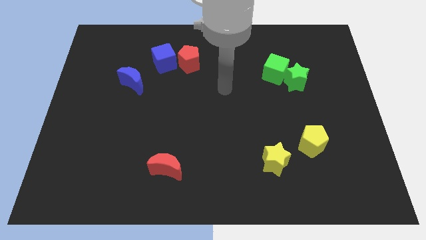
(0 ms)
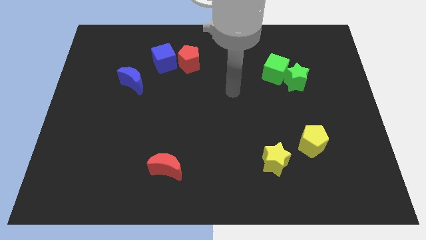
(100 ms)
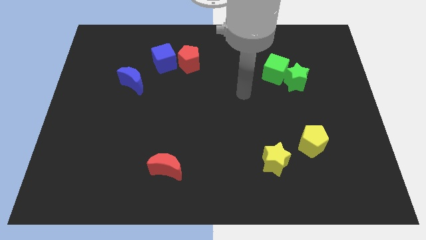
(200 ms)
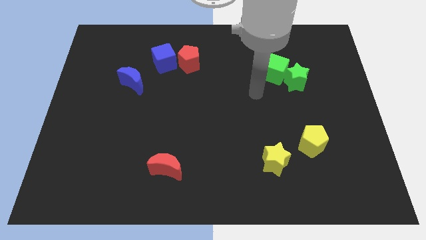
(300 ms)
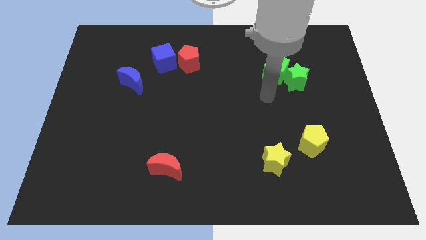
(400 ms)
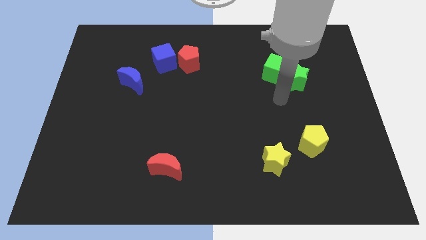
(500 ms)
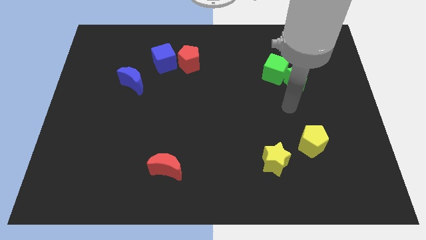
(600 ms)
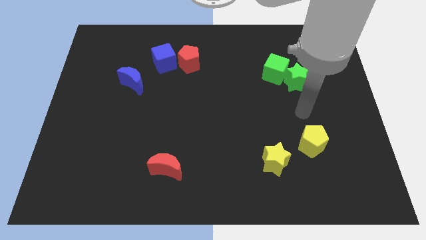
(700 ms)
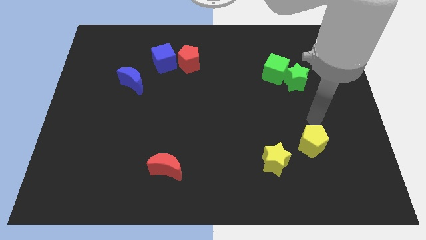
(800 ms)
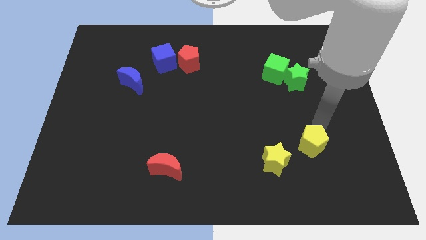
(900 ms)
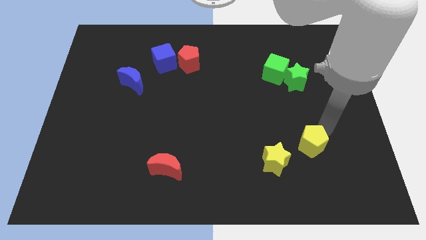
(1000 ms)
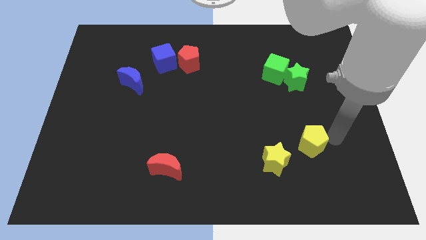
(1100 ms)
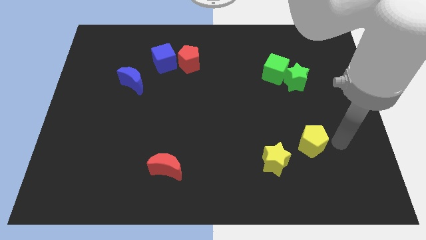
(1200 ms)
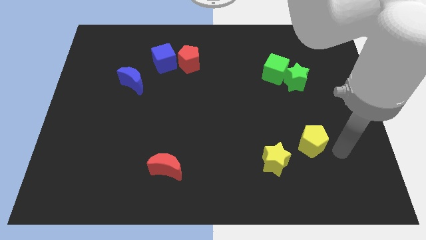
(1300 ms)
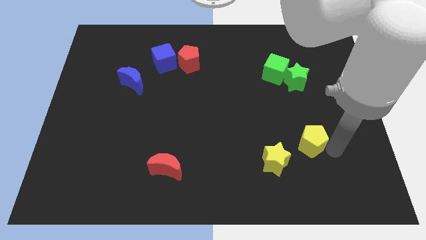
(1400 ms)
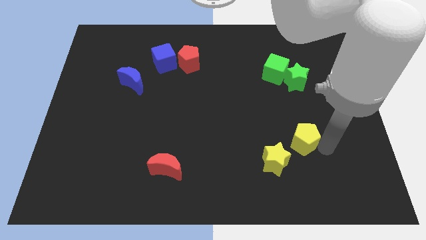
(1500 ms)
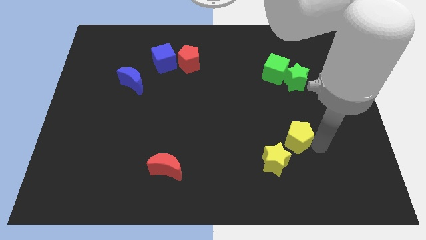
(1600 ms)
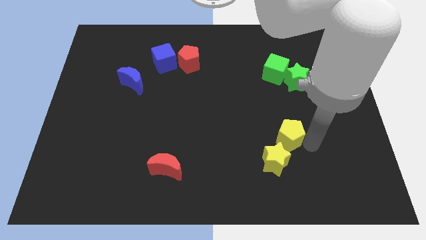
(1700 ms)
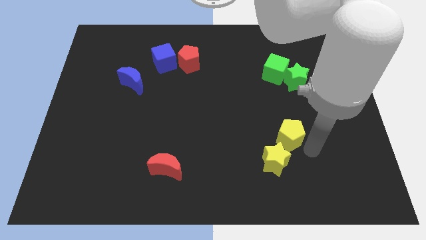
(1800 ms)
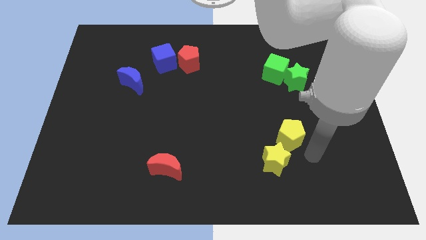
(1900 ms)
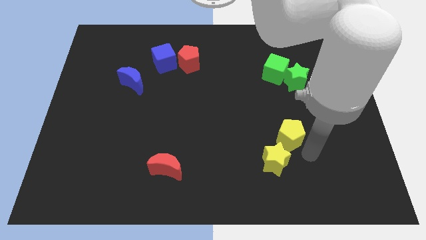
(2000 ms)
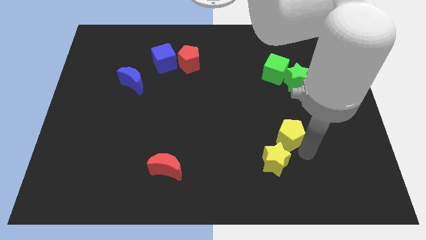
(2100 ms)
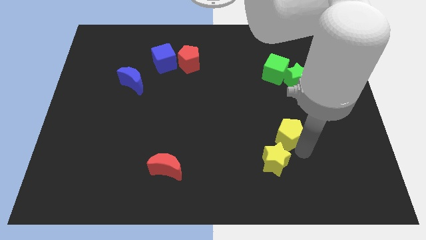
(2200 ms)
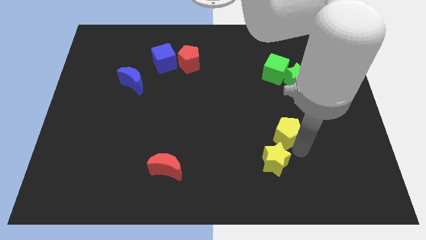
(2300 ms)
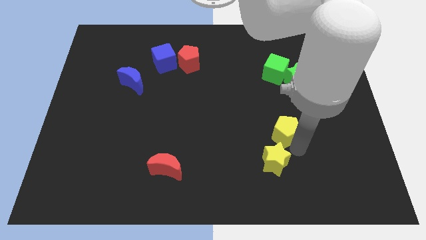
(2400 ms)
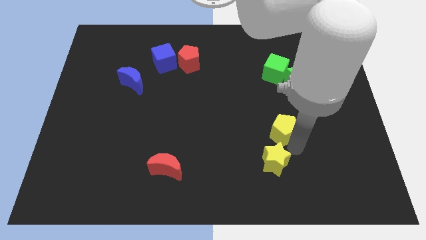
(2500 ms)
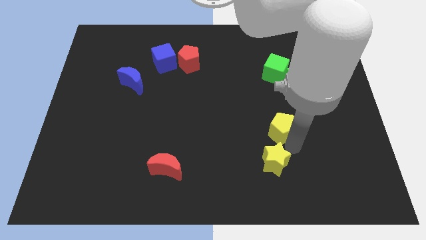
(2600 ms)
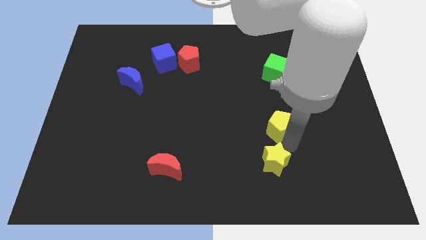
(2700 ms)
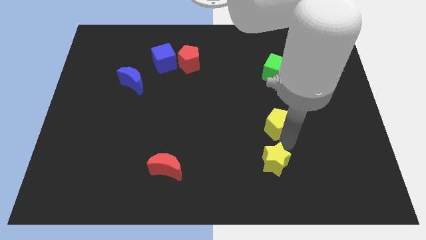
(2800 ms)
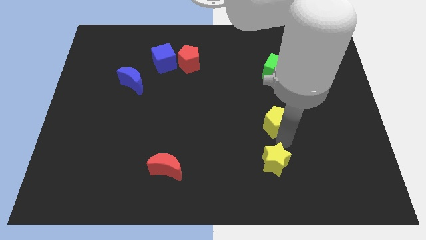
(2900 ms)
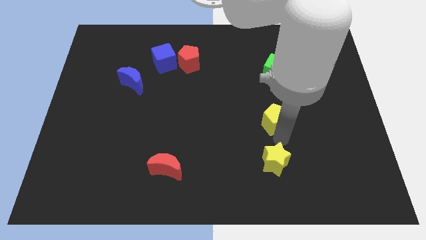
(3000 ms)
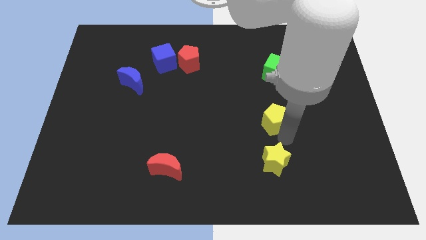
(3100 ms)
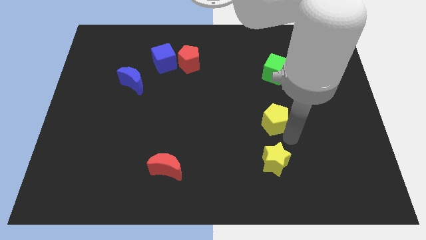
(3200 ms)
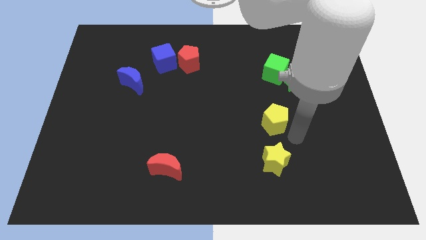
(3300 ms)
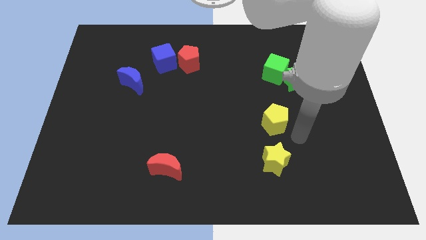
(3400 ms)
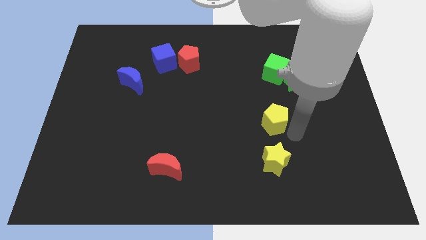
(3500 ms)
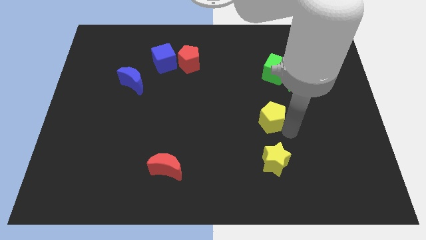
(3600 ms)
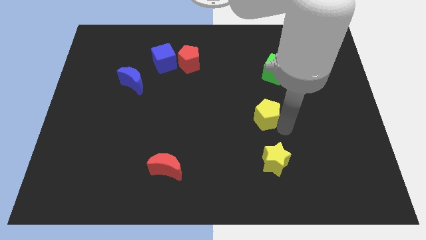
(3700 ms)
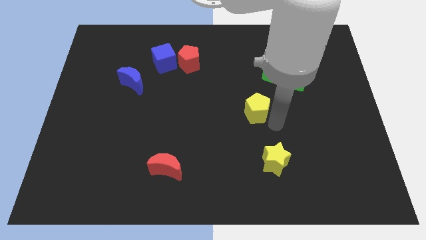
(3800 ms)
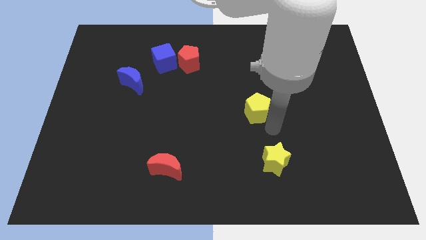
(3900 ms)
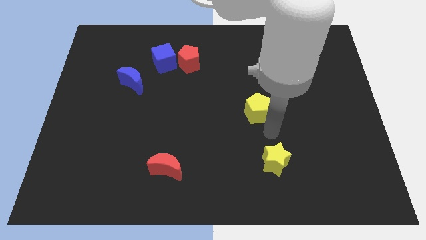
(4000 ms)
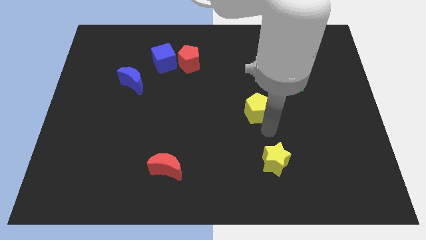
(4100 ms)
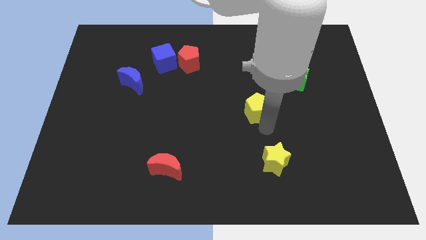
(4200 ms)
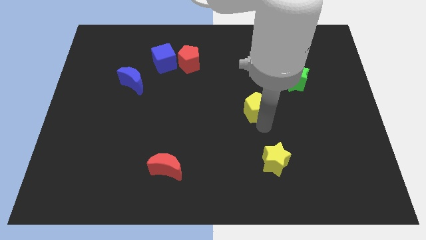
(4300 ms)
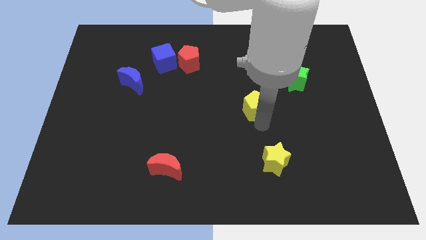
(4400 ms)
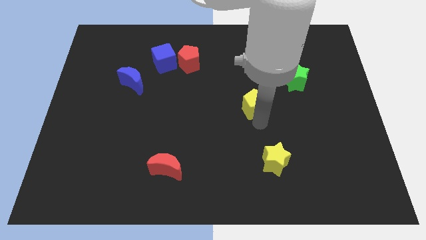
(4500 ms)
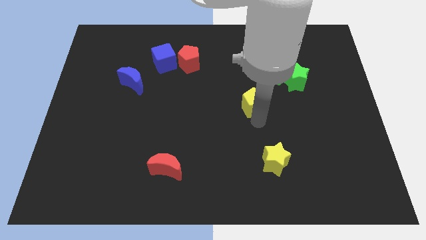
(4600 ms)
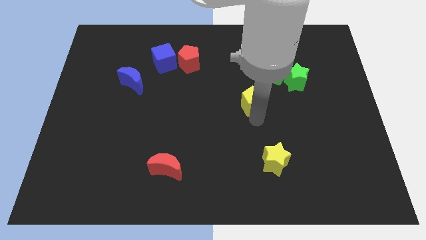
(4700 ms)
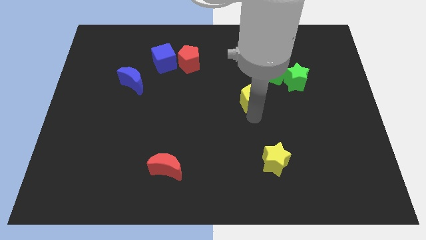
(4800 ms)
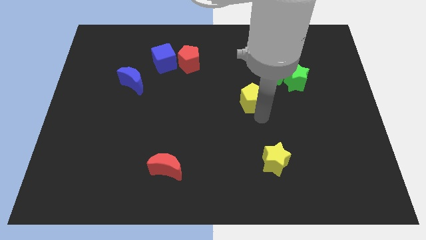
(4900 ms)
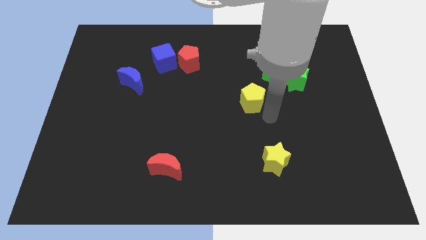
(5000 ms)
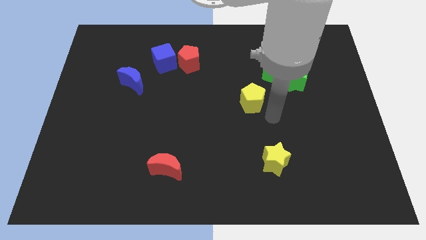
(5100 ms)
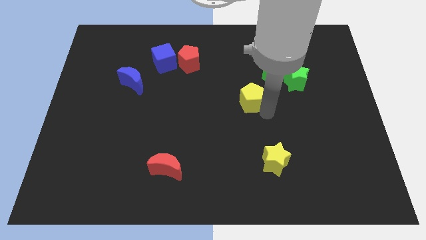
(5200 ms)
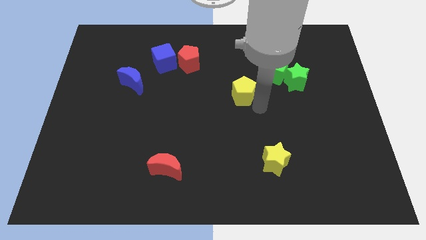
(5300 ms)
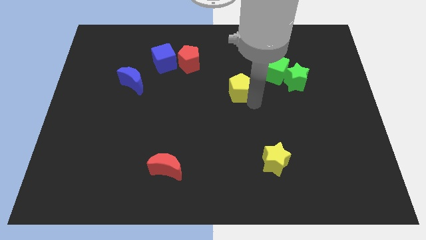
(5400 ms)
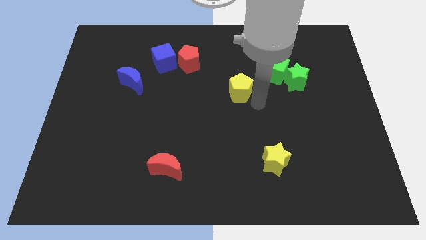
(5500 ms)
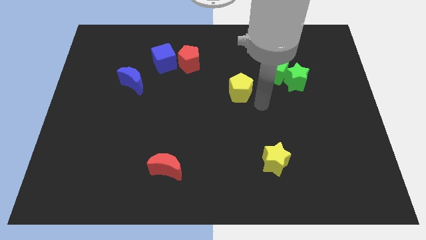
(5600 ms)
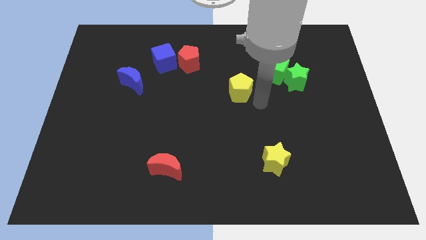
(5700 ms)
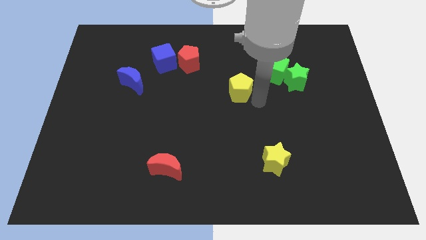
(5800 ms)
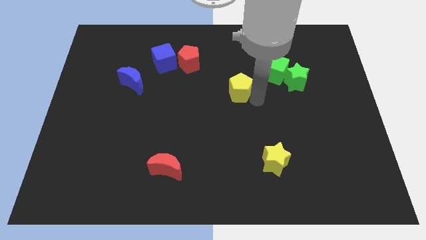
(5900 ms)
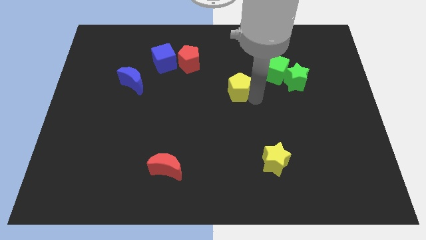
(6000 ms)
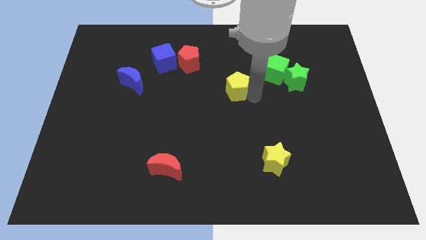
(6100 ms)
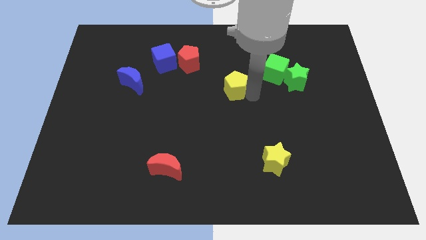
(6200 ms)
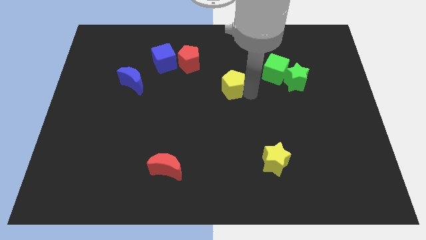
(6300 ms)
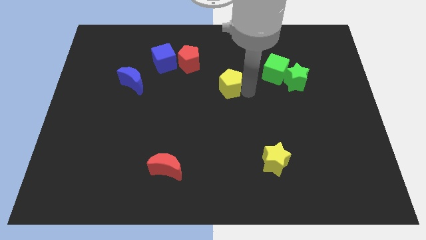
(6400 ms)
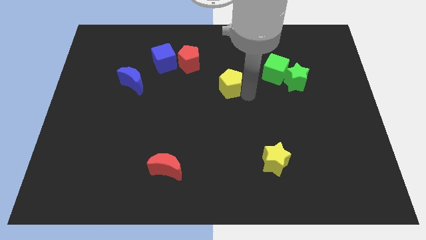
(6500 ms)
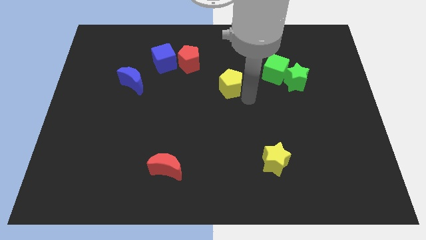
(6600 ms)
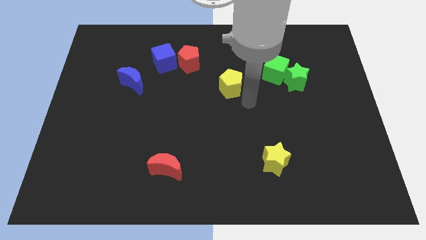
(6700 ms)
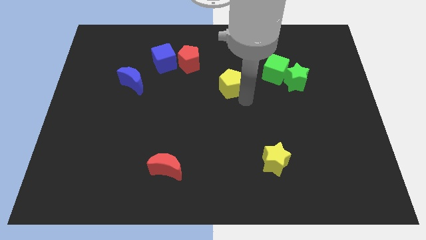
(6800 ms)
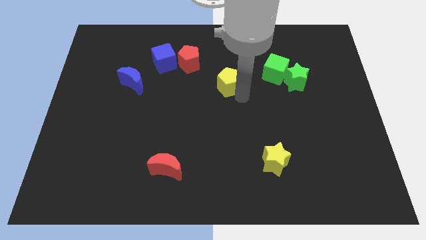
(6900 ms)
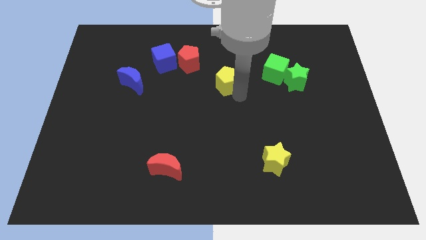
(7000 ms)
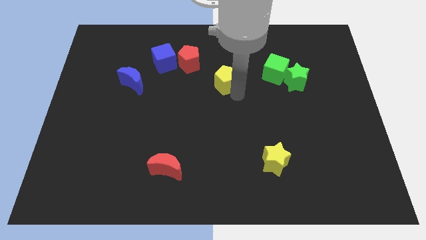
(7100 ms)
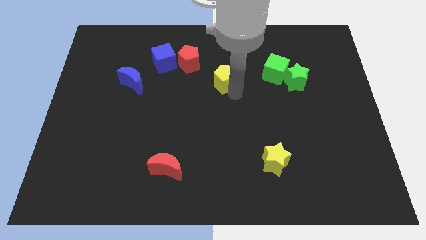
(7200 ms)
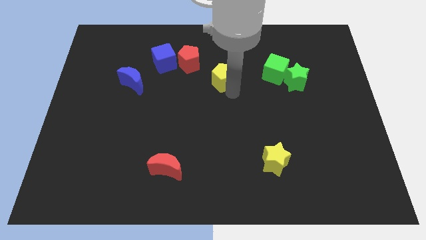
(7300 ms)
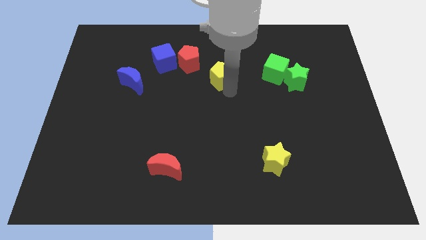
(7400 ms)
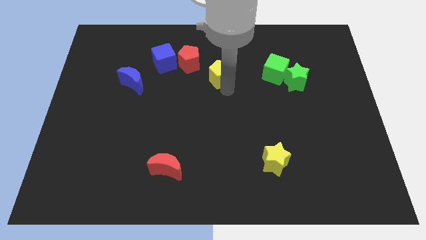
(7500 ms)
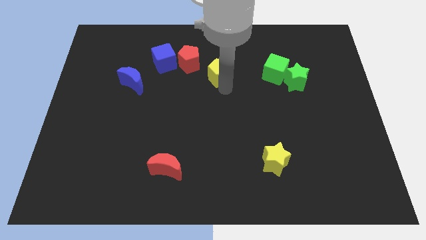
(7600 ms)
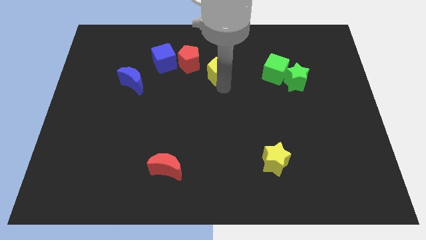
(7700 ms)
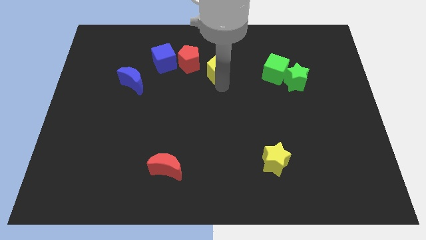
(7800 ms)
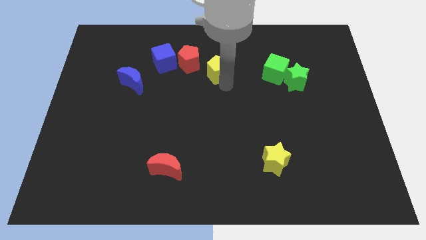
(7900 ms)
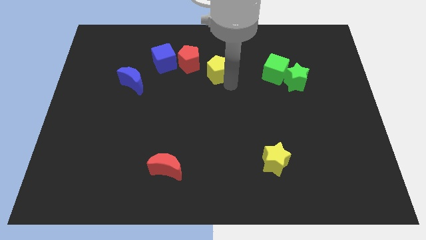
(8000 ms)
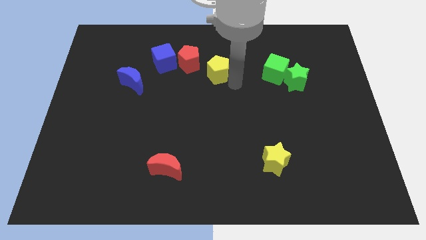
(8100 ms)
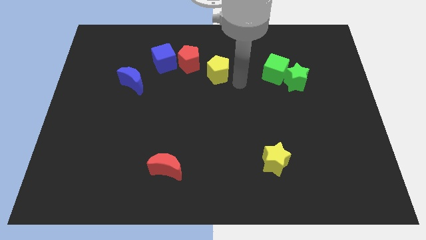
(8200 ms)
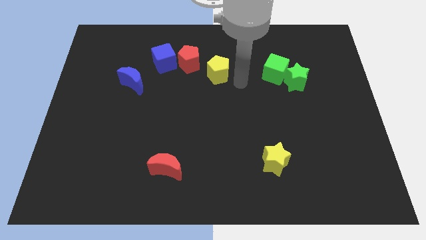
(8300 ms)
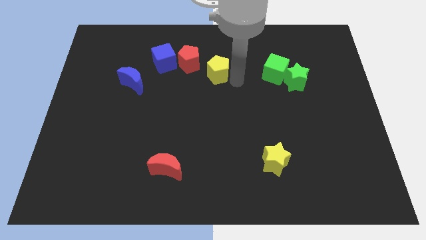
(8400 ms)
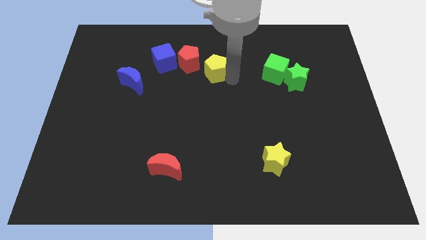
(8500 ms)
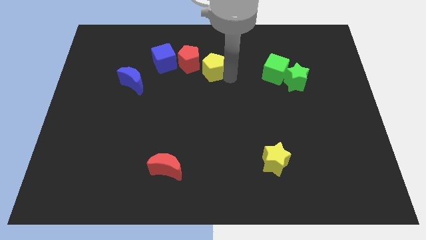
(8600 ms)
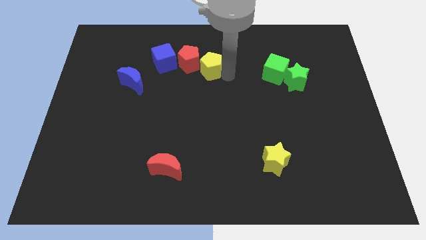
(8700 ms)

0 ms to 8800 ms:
slide the yellow pentagon towards the red pentagon
